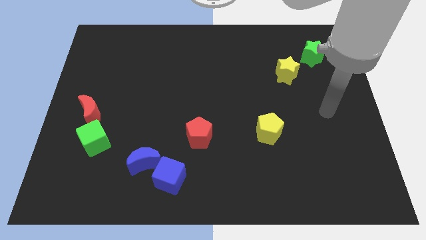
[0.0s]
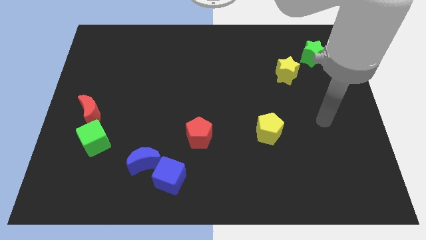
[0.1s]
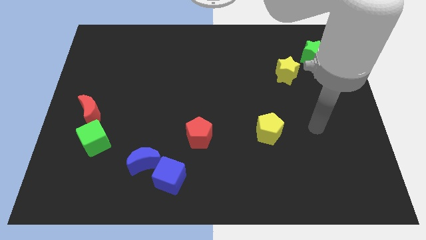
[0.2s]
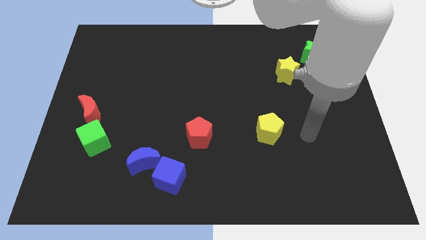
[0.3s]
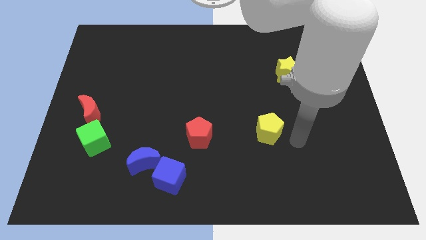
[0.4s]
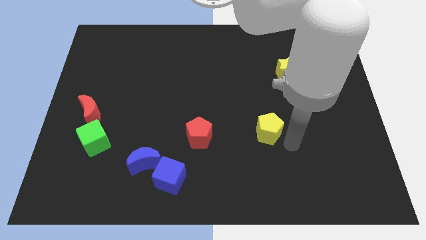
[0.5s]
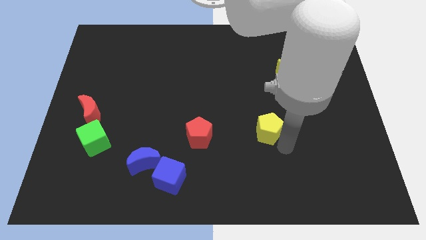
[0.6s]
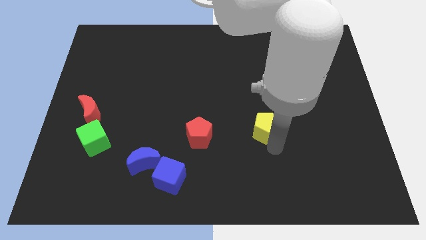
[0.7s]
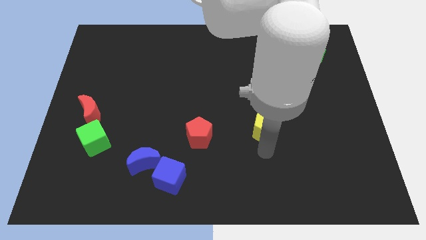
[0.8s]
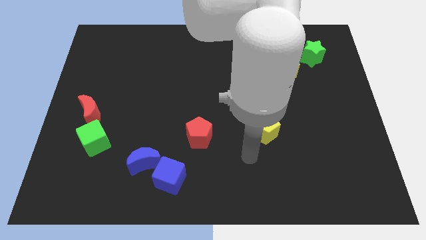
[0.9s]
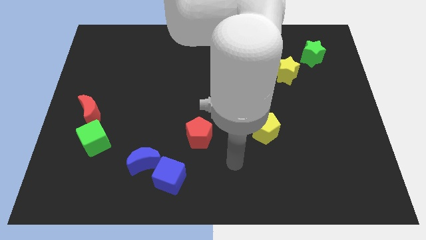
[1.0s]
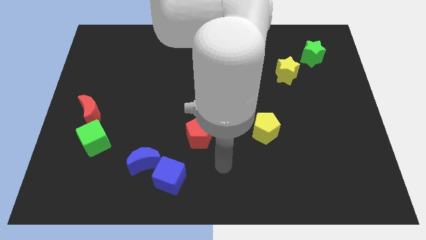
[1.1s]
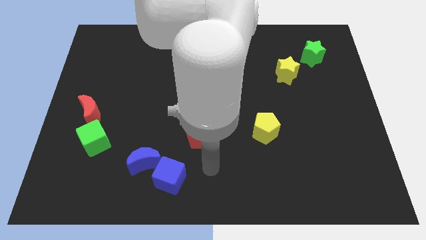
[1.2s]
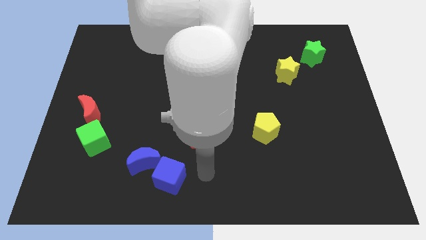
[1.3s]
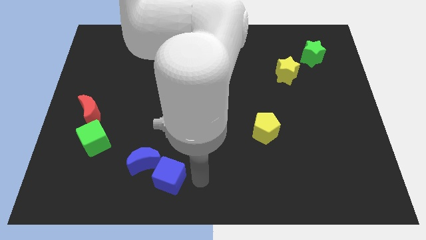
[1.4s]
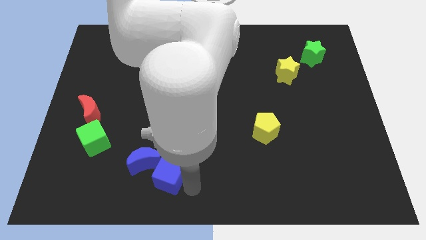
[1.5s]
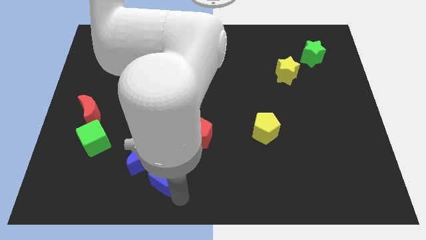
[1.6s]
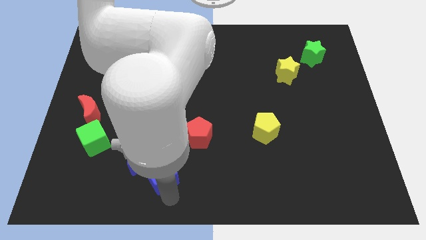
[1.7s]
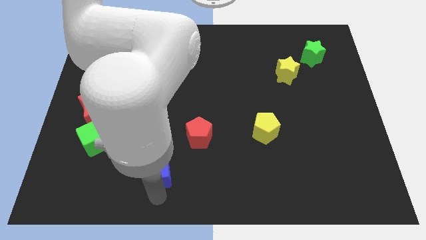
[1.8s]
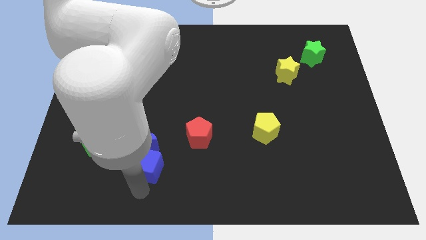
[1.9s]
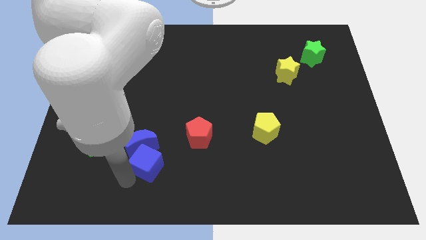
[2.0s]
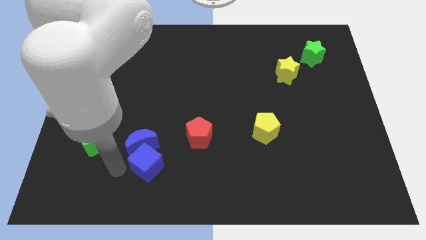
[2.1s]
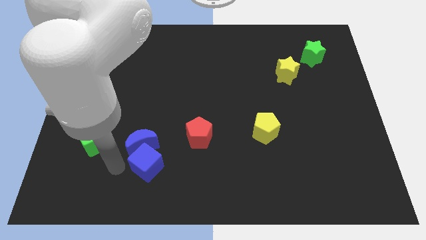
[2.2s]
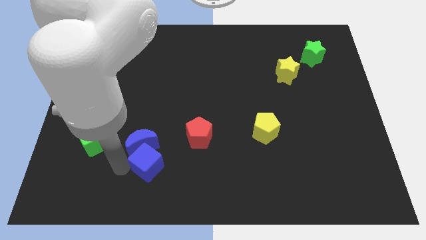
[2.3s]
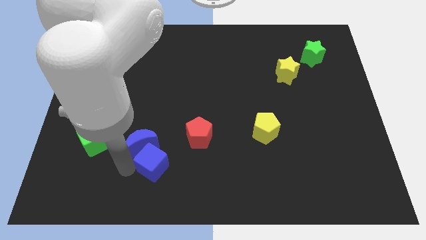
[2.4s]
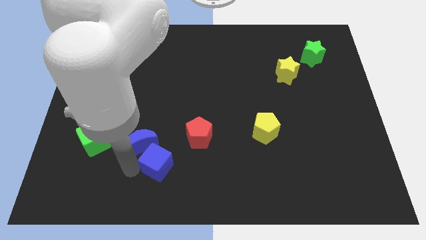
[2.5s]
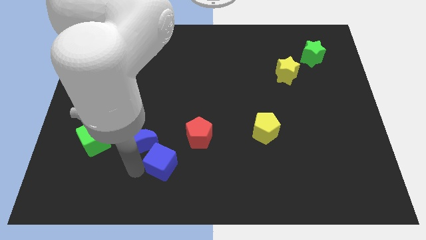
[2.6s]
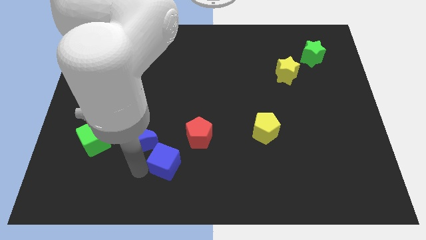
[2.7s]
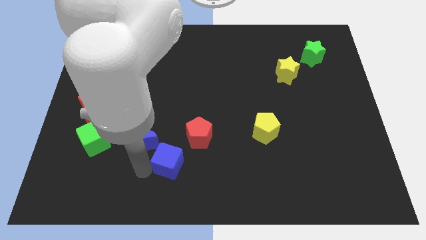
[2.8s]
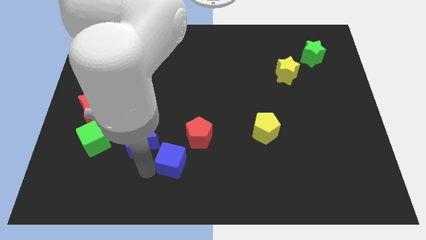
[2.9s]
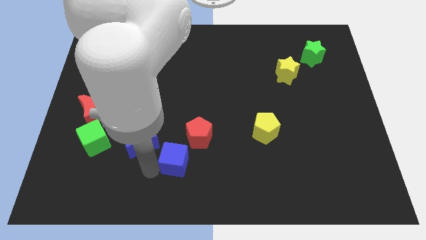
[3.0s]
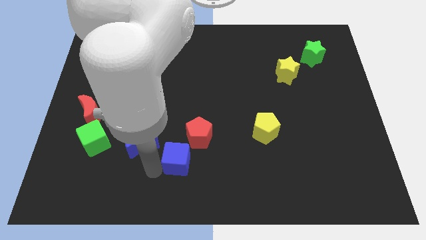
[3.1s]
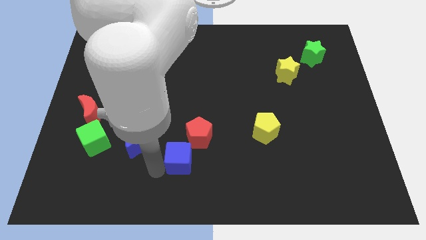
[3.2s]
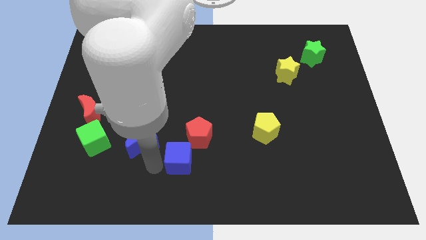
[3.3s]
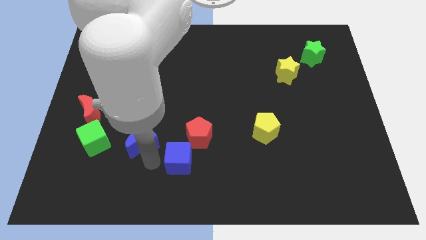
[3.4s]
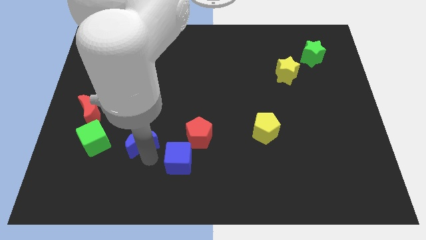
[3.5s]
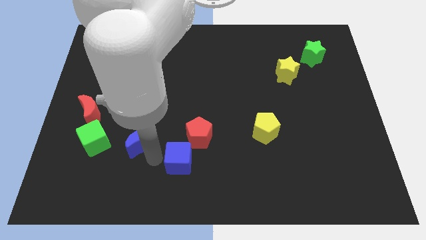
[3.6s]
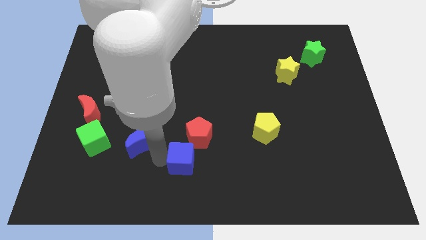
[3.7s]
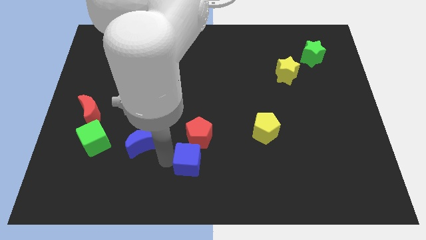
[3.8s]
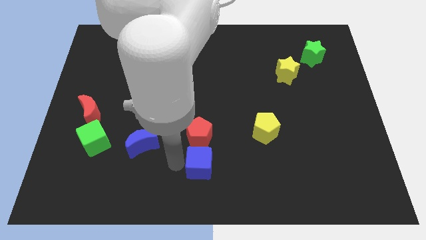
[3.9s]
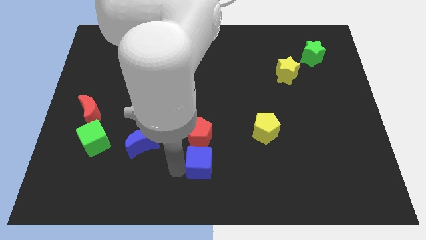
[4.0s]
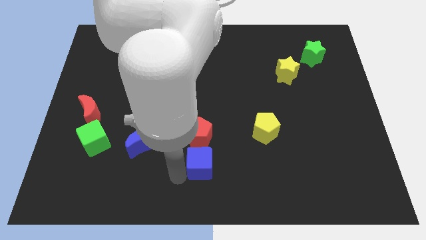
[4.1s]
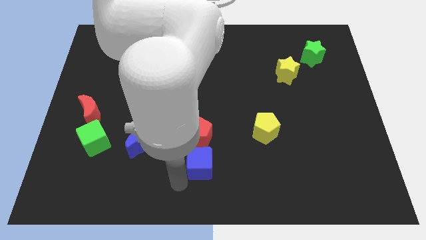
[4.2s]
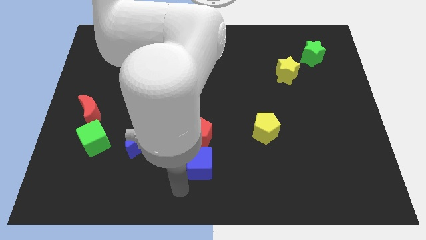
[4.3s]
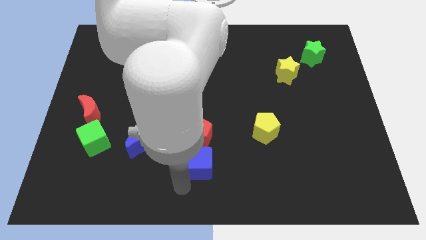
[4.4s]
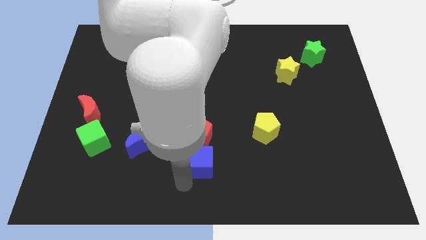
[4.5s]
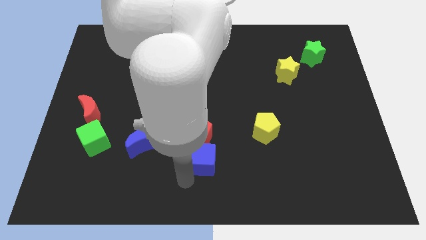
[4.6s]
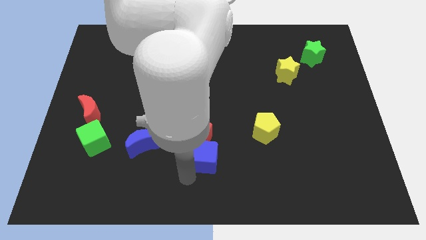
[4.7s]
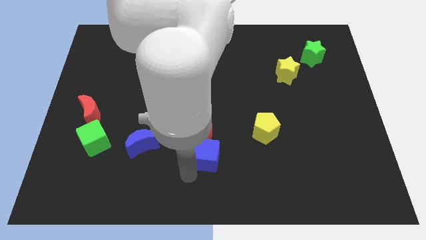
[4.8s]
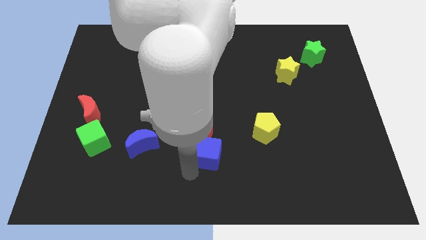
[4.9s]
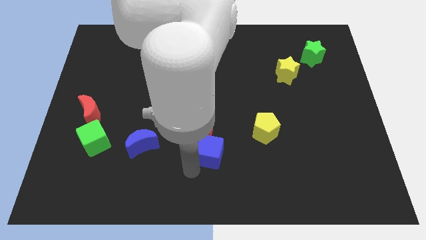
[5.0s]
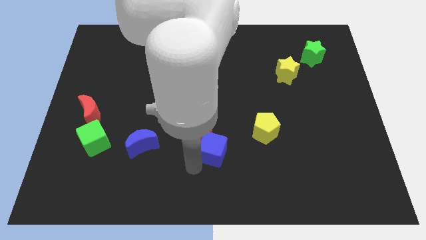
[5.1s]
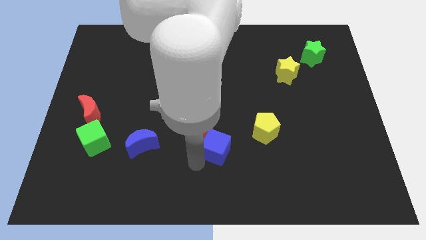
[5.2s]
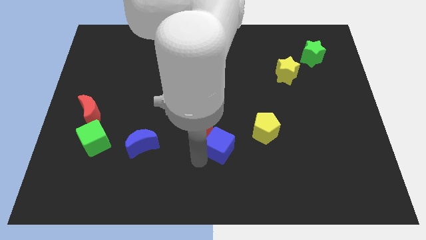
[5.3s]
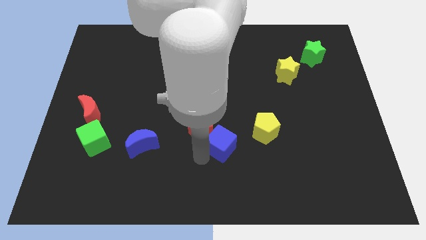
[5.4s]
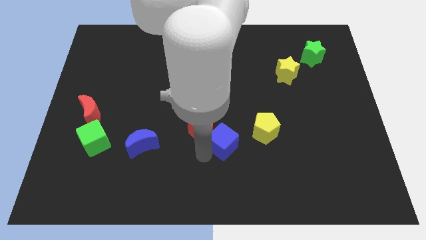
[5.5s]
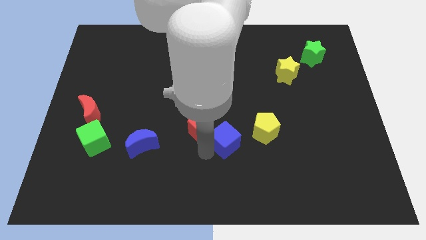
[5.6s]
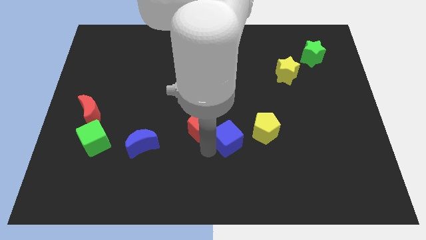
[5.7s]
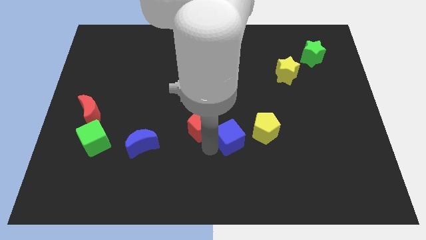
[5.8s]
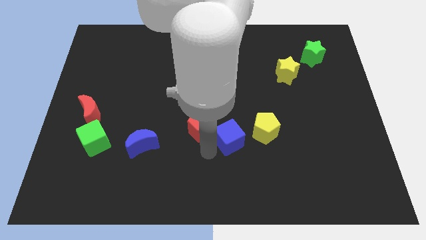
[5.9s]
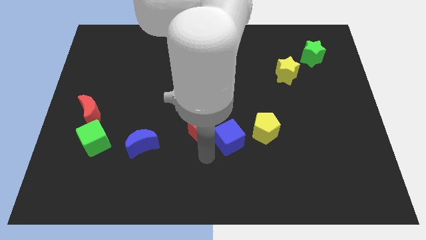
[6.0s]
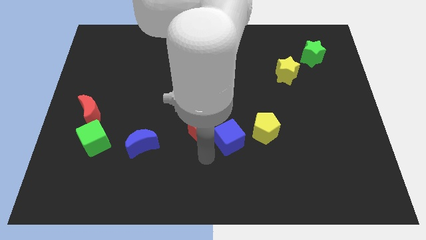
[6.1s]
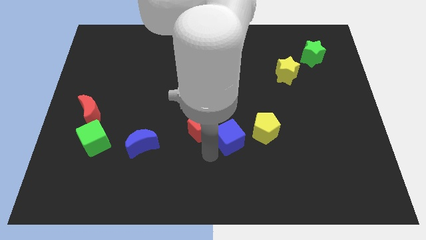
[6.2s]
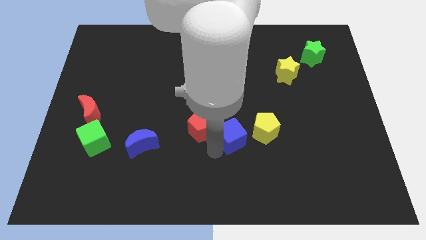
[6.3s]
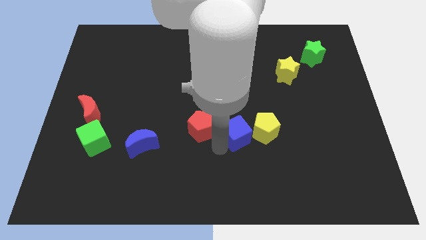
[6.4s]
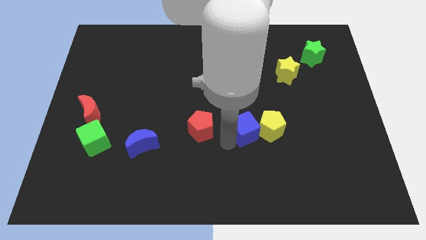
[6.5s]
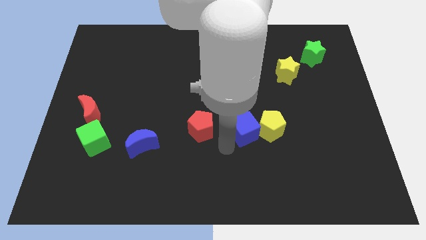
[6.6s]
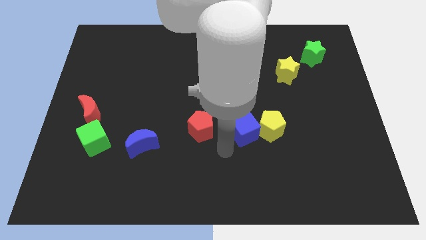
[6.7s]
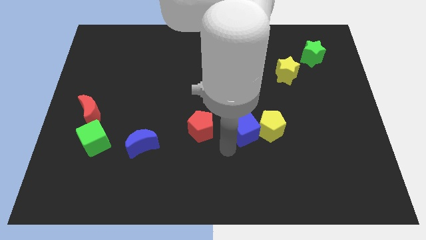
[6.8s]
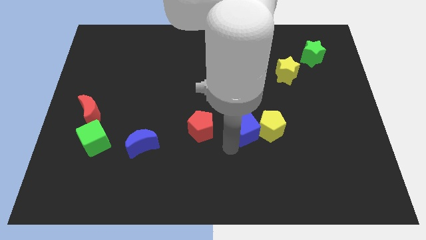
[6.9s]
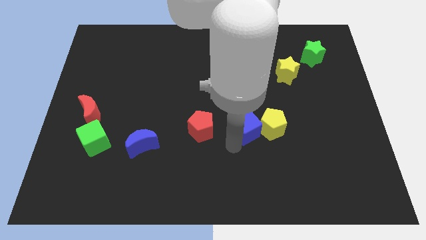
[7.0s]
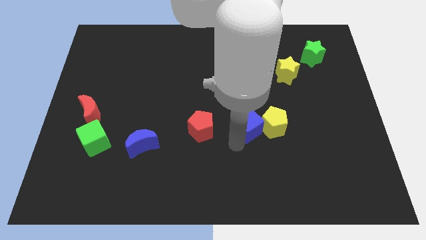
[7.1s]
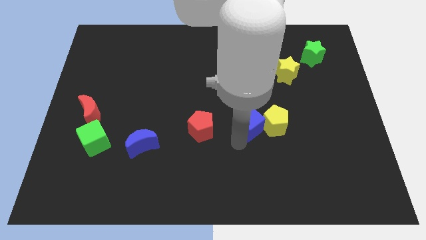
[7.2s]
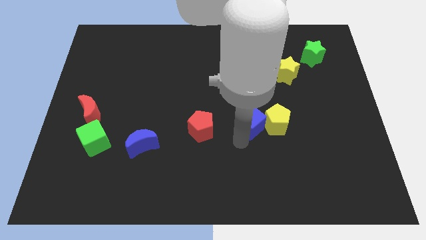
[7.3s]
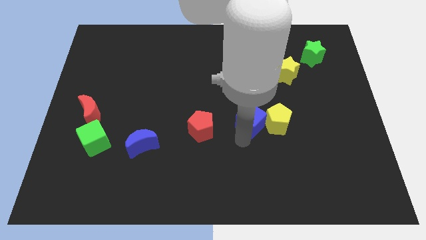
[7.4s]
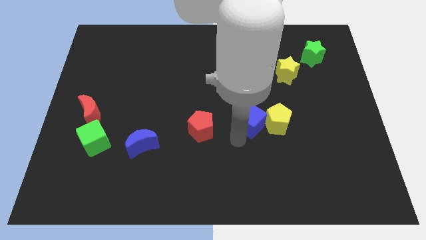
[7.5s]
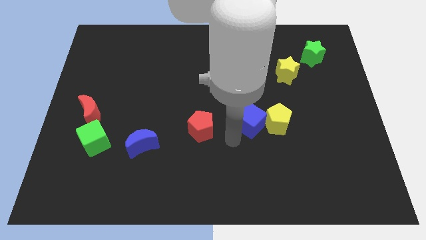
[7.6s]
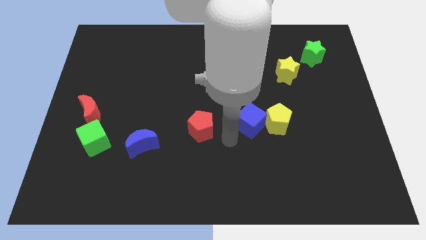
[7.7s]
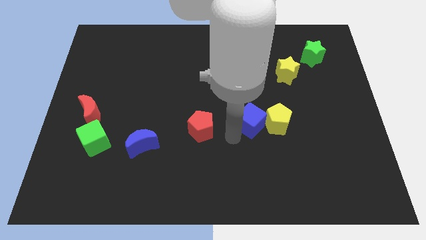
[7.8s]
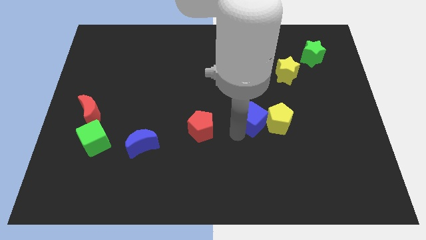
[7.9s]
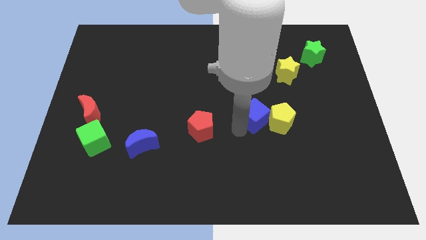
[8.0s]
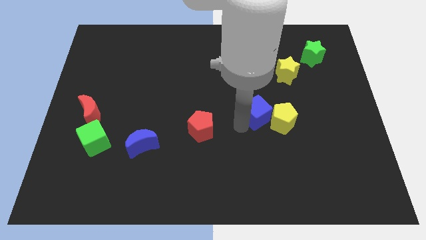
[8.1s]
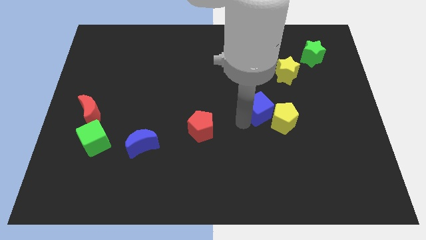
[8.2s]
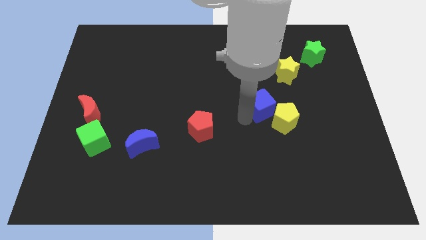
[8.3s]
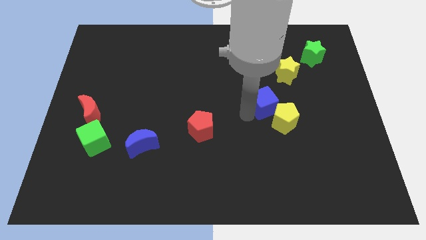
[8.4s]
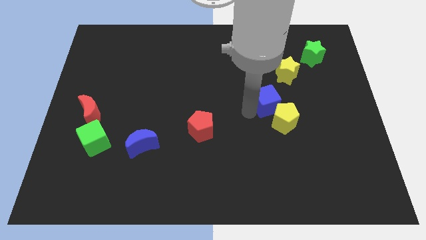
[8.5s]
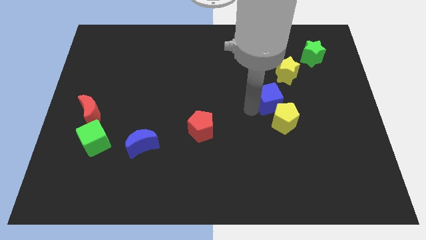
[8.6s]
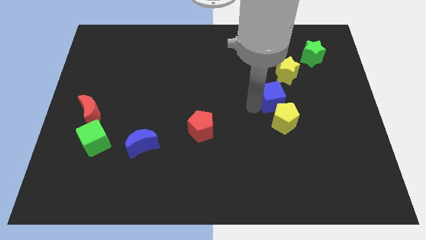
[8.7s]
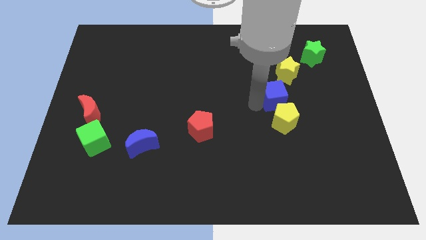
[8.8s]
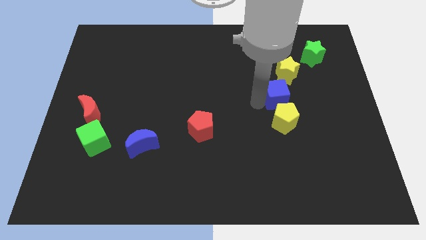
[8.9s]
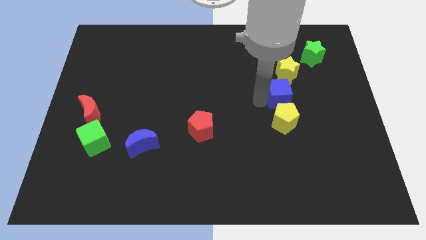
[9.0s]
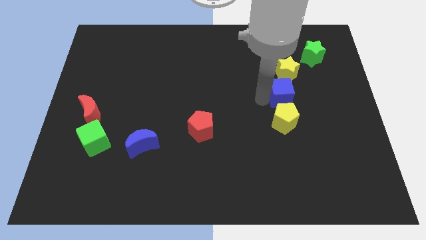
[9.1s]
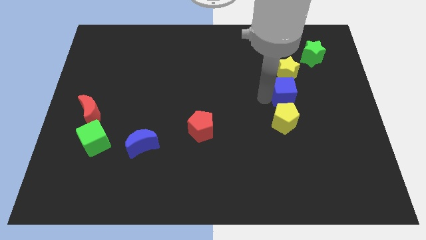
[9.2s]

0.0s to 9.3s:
push the blue cube diagonally up and to the right of the yellow pentagon
